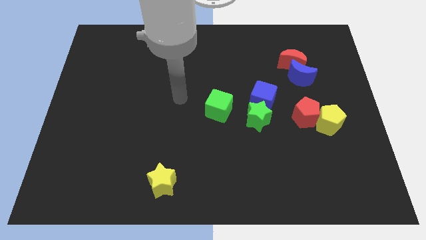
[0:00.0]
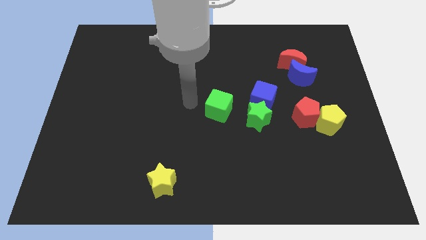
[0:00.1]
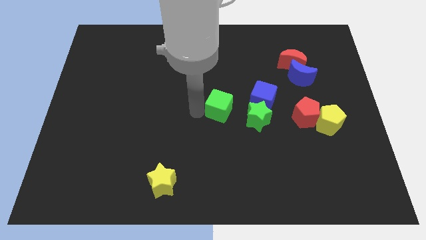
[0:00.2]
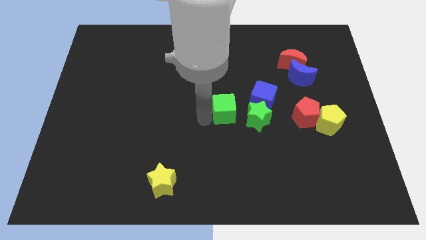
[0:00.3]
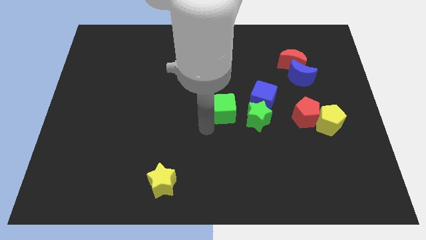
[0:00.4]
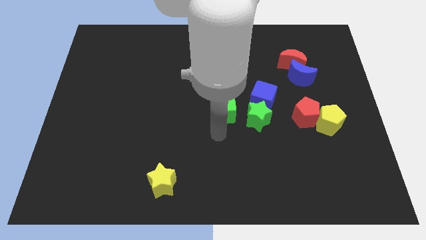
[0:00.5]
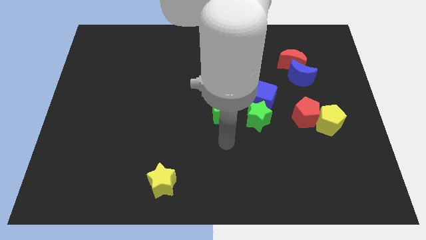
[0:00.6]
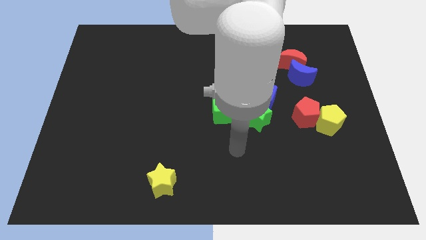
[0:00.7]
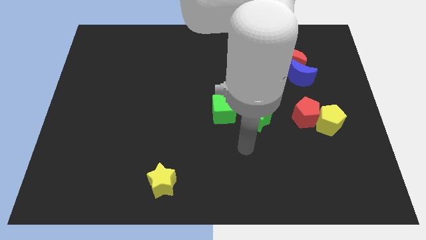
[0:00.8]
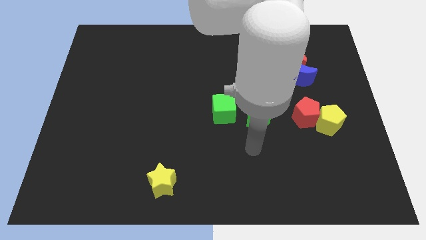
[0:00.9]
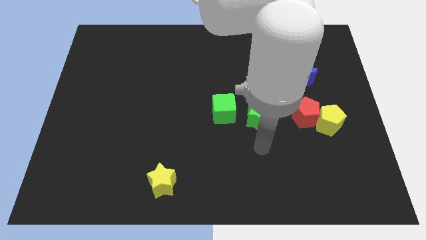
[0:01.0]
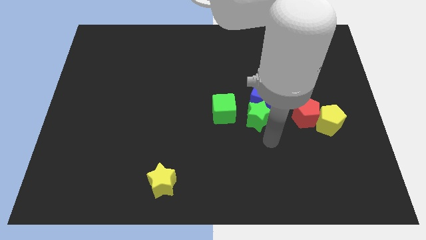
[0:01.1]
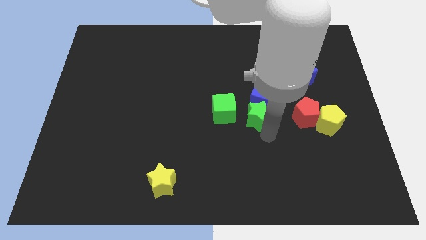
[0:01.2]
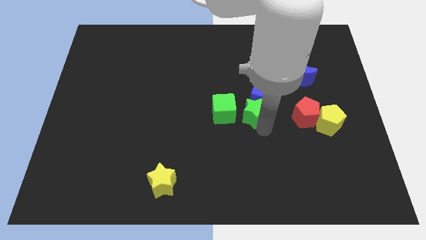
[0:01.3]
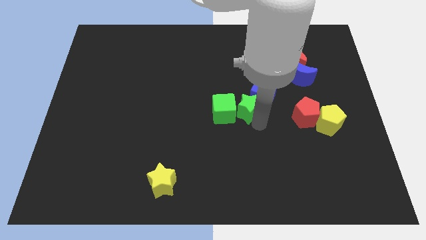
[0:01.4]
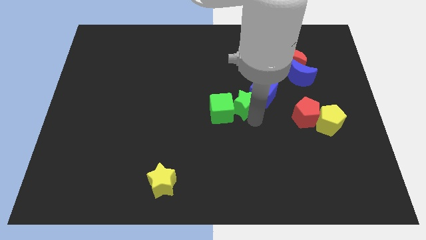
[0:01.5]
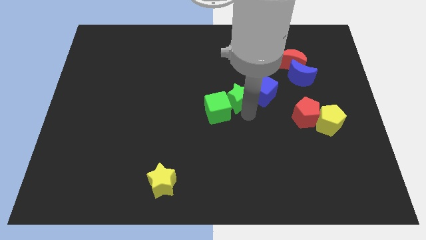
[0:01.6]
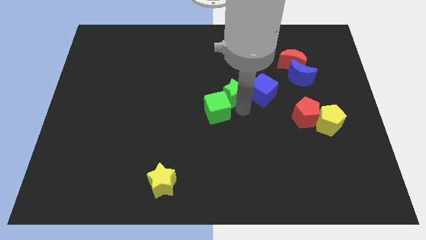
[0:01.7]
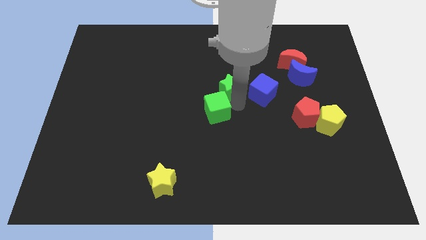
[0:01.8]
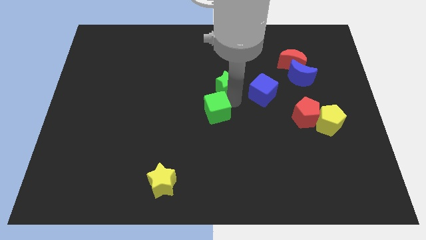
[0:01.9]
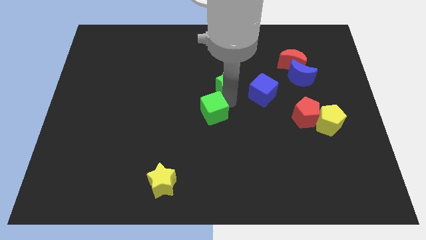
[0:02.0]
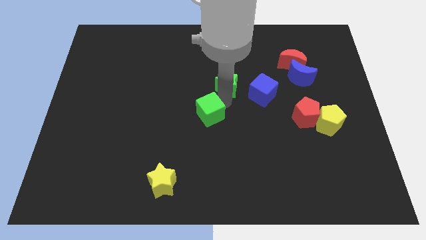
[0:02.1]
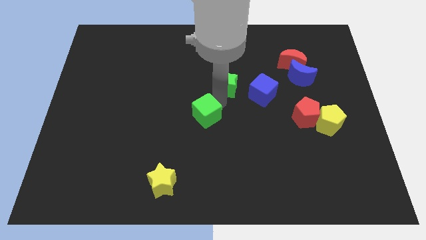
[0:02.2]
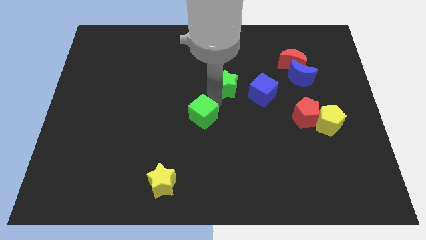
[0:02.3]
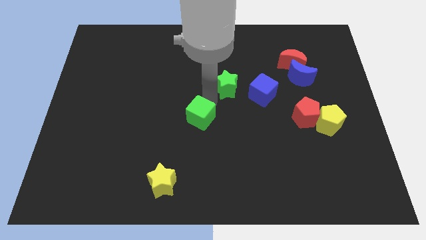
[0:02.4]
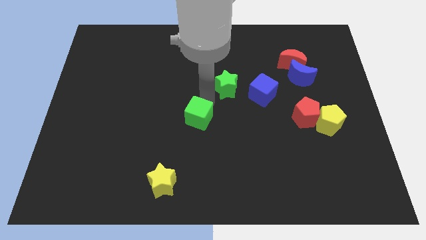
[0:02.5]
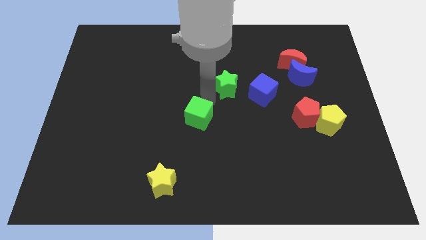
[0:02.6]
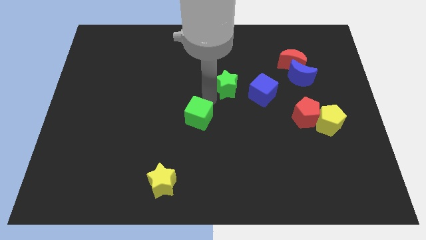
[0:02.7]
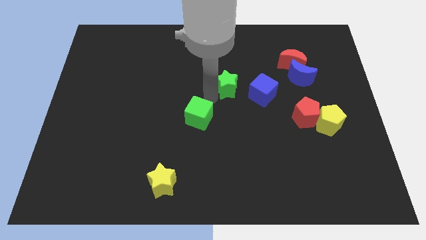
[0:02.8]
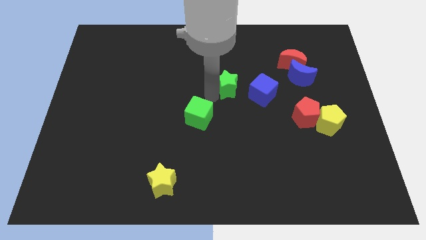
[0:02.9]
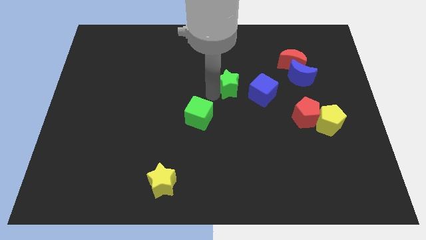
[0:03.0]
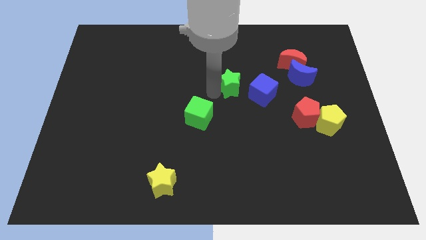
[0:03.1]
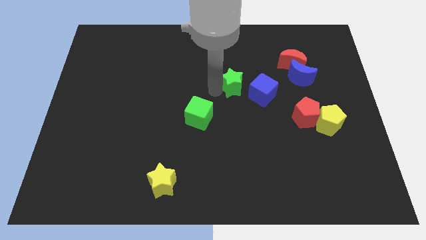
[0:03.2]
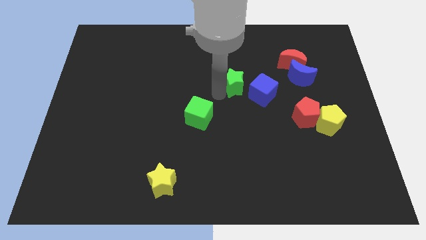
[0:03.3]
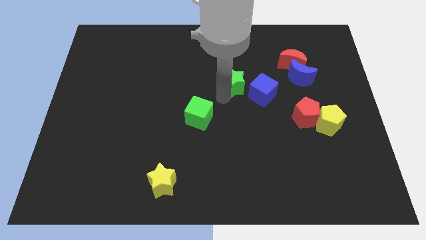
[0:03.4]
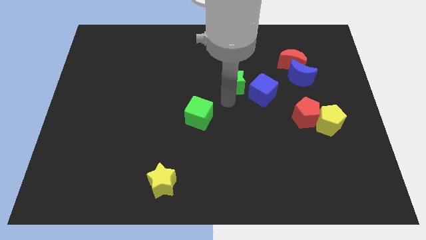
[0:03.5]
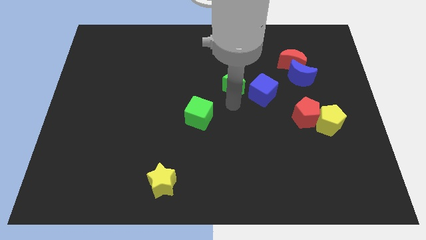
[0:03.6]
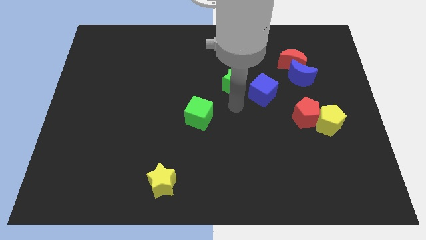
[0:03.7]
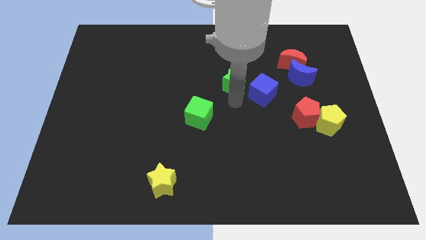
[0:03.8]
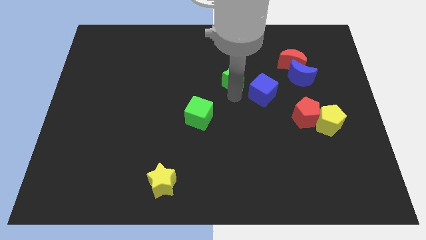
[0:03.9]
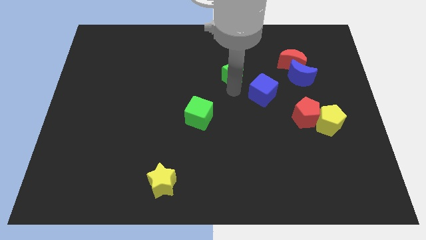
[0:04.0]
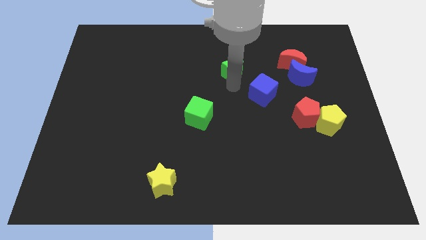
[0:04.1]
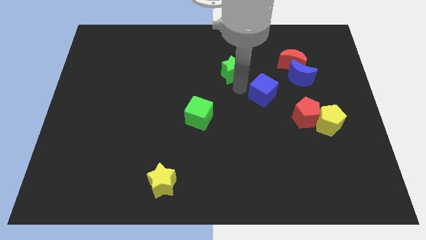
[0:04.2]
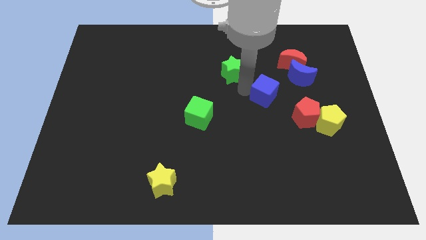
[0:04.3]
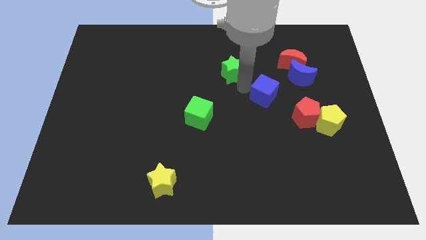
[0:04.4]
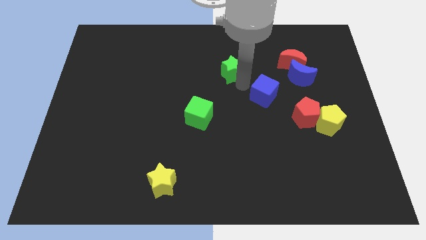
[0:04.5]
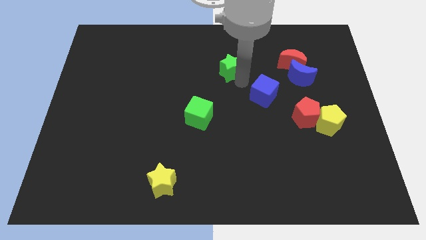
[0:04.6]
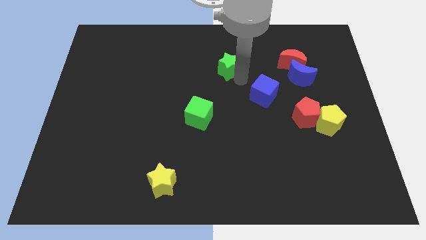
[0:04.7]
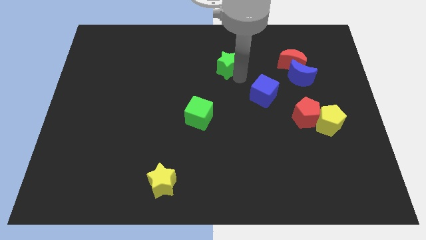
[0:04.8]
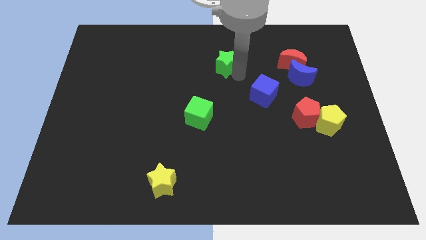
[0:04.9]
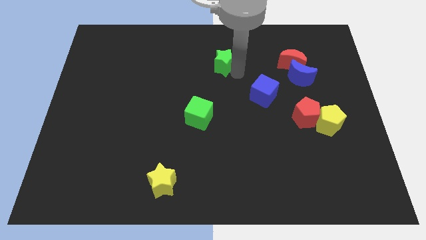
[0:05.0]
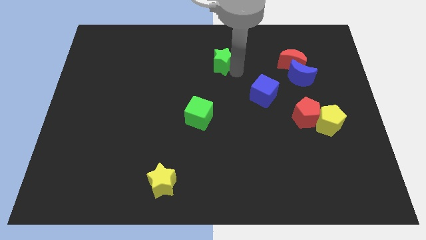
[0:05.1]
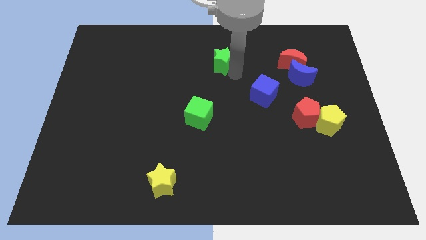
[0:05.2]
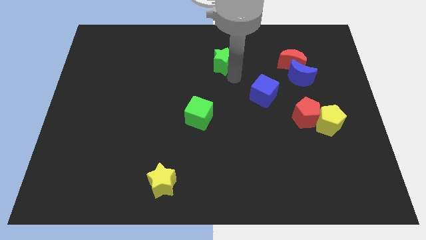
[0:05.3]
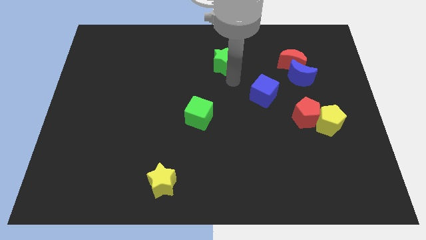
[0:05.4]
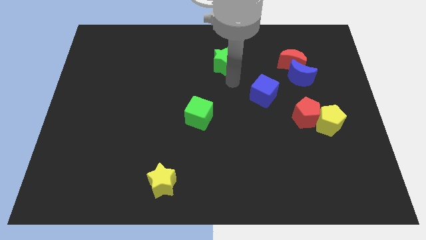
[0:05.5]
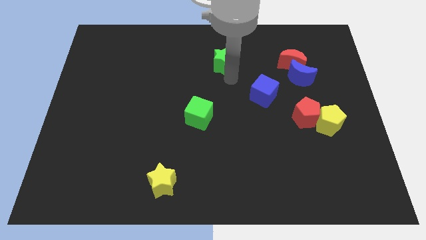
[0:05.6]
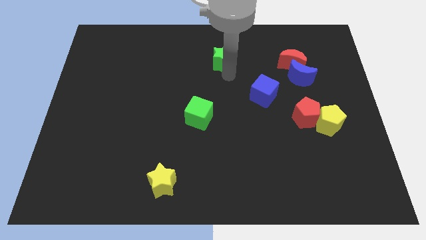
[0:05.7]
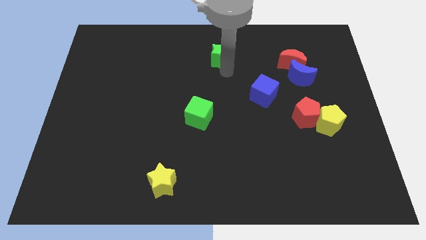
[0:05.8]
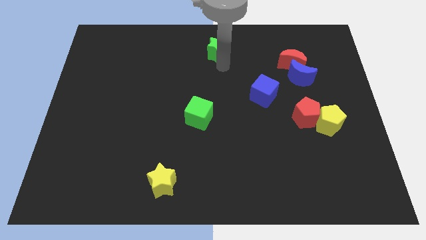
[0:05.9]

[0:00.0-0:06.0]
put the green star to the towards your base
